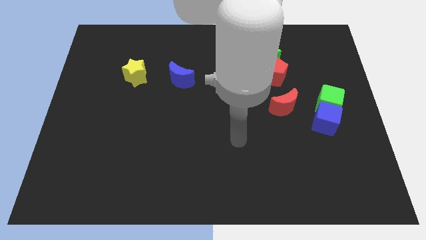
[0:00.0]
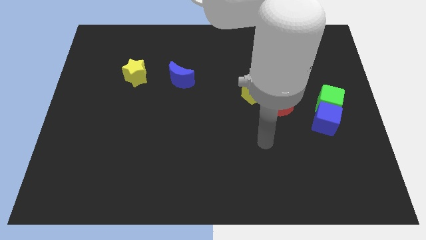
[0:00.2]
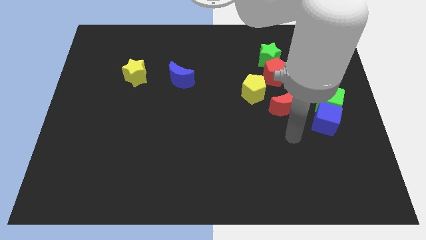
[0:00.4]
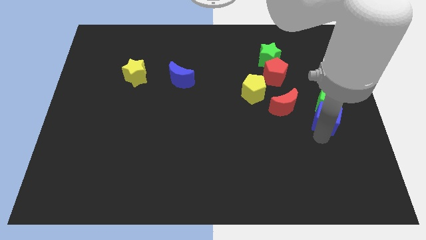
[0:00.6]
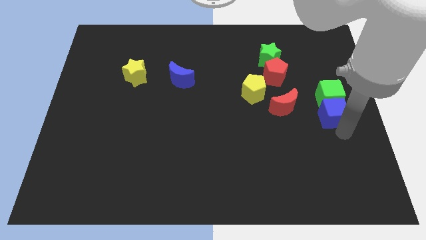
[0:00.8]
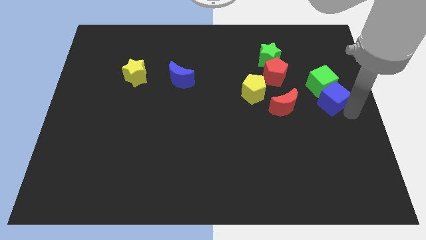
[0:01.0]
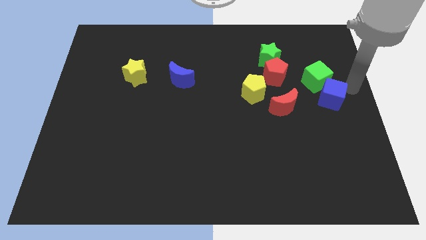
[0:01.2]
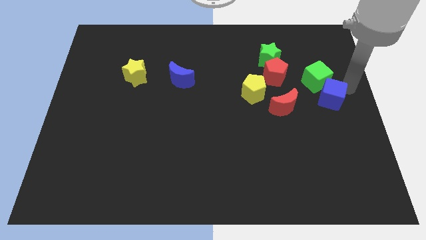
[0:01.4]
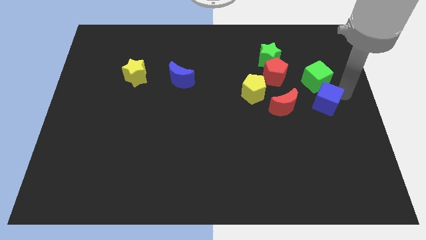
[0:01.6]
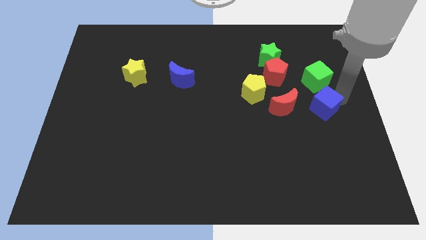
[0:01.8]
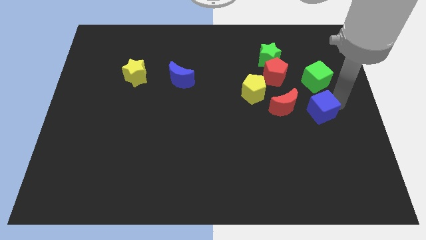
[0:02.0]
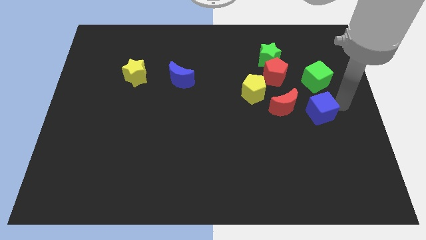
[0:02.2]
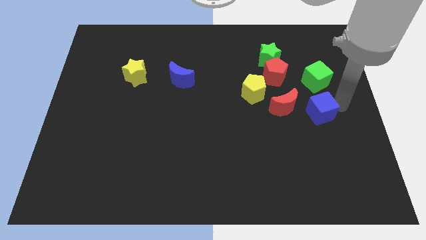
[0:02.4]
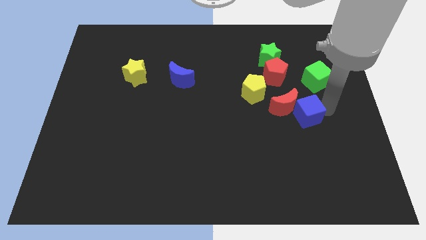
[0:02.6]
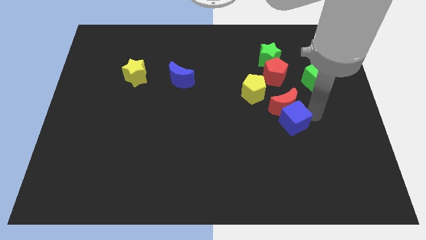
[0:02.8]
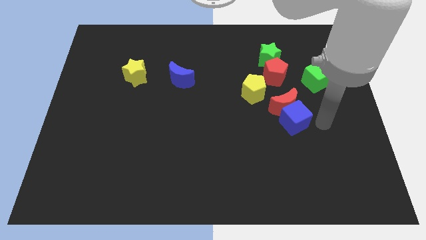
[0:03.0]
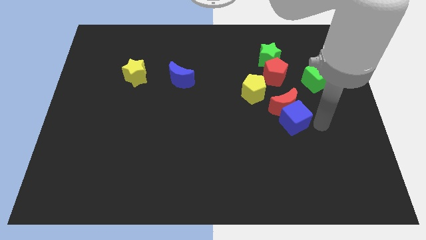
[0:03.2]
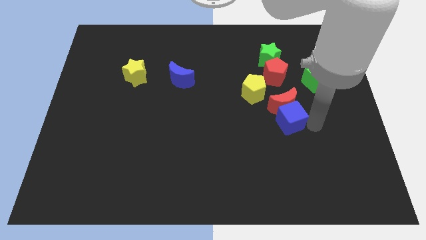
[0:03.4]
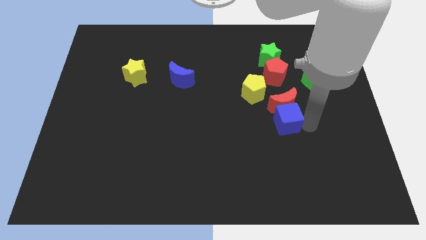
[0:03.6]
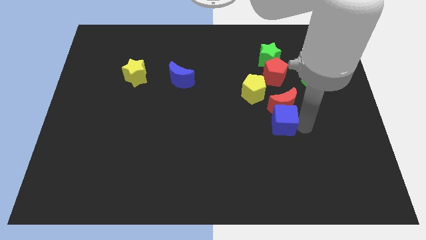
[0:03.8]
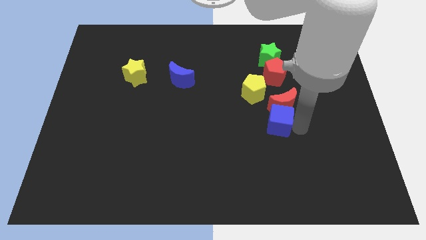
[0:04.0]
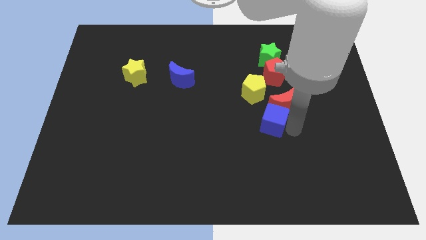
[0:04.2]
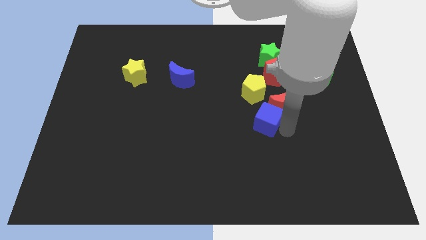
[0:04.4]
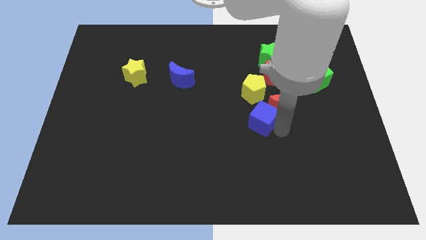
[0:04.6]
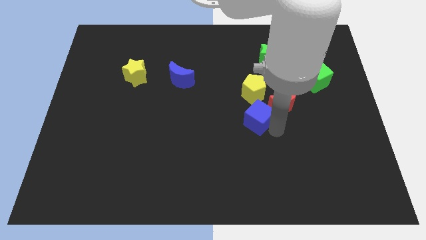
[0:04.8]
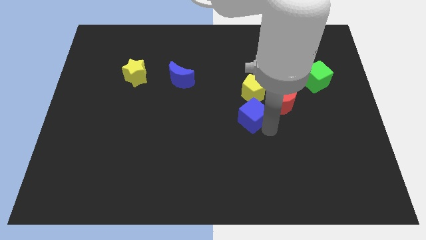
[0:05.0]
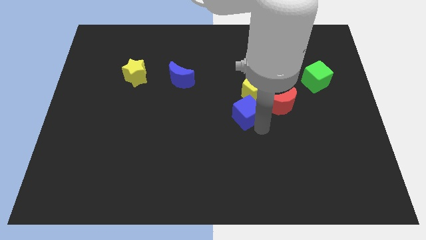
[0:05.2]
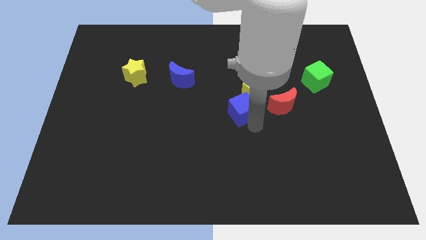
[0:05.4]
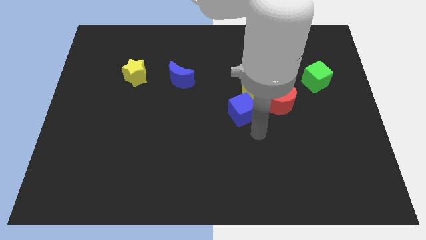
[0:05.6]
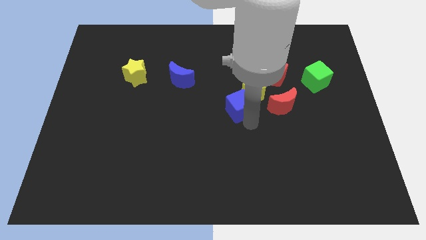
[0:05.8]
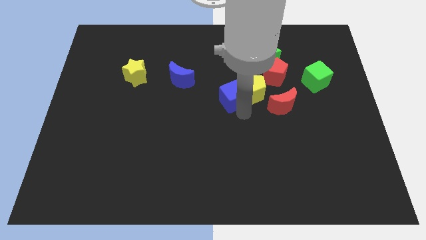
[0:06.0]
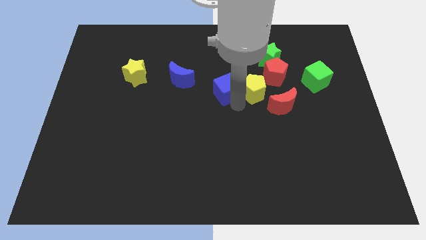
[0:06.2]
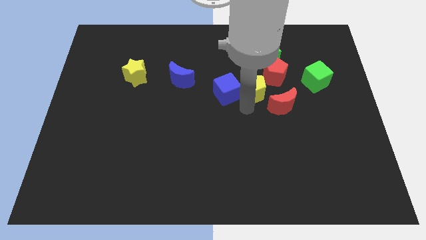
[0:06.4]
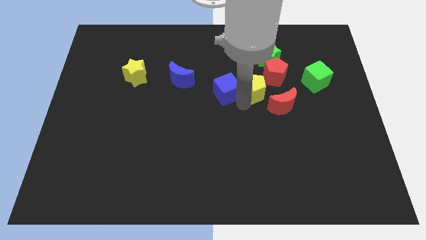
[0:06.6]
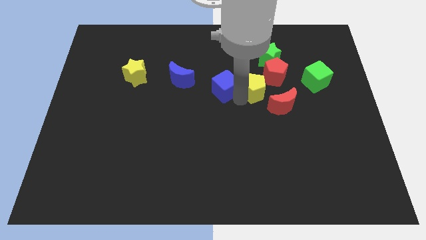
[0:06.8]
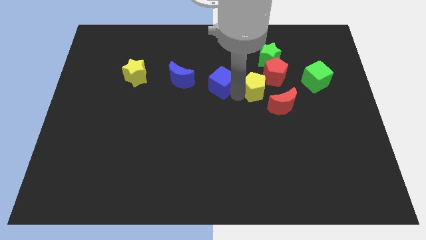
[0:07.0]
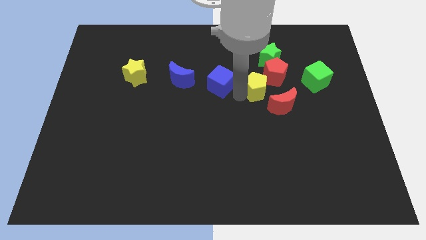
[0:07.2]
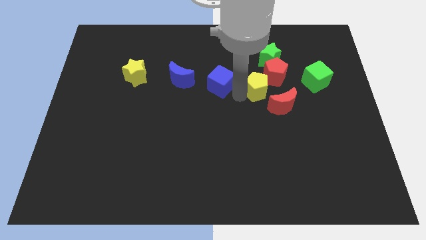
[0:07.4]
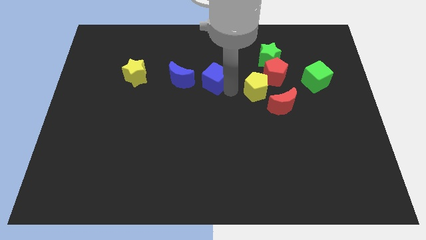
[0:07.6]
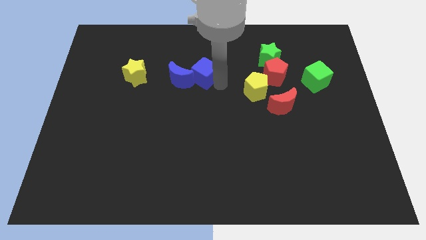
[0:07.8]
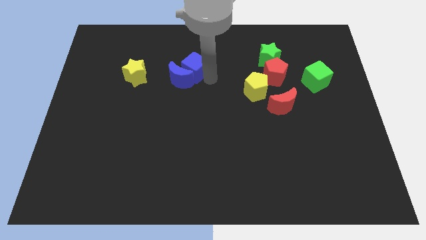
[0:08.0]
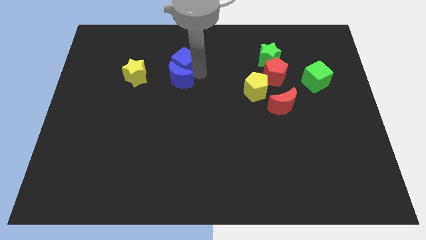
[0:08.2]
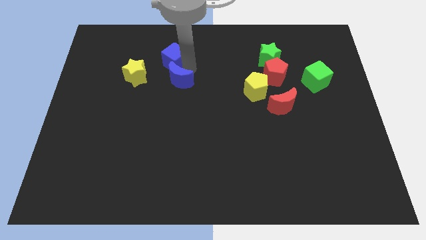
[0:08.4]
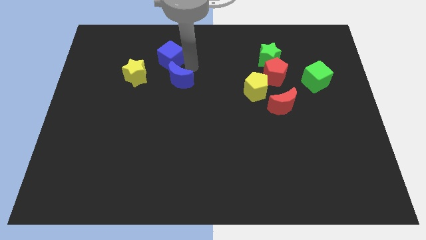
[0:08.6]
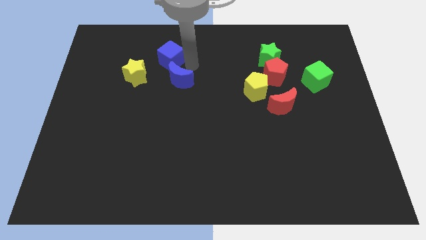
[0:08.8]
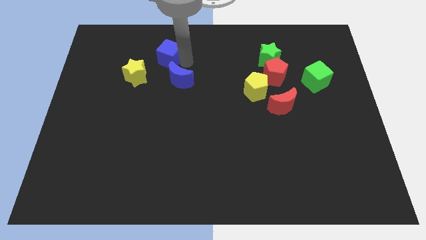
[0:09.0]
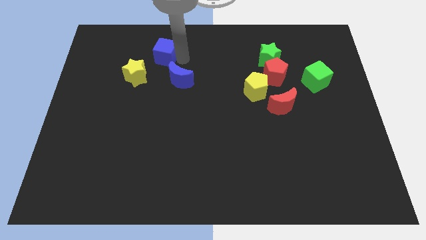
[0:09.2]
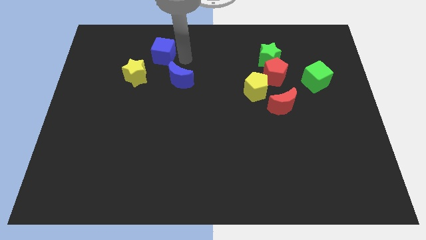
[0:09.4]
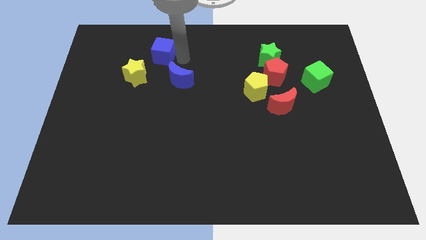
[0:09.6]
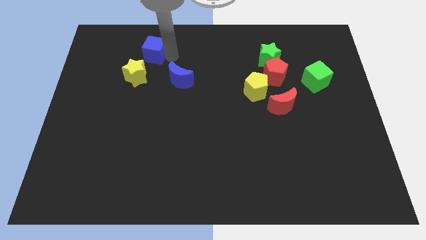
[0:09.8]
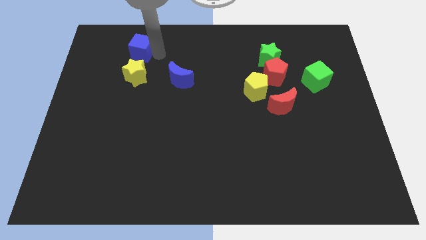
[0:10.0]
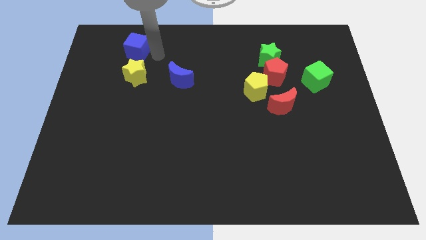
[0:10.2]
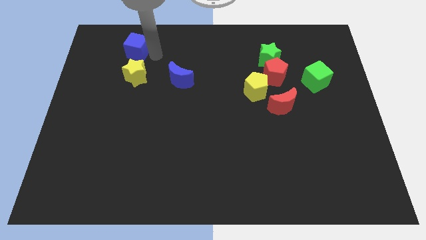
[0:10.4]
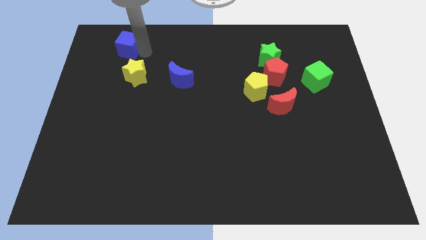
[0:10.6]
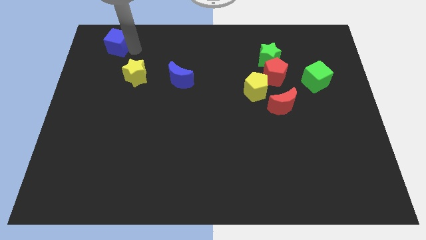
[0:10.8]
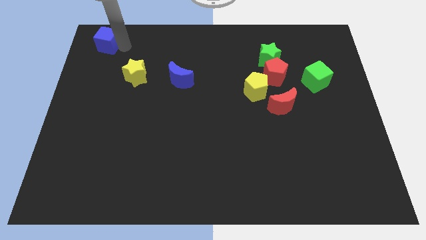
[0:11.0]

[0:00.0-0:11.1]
put the blue cube to the upper left corner

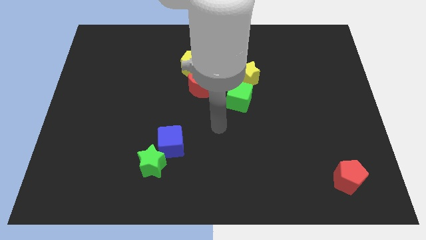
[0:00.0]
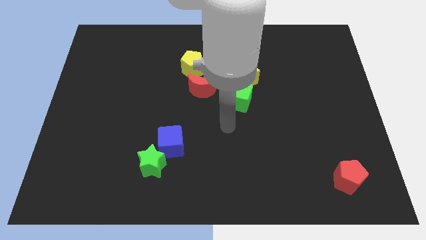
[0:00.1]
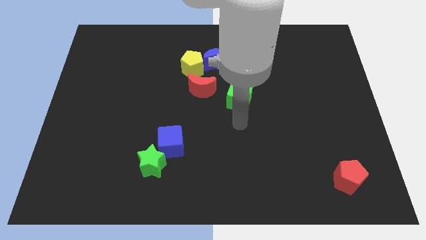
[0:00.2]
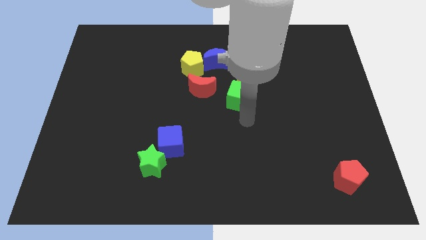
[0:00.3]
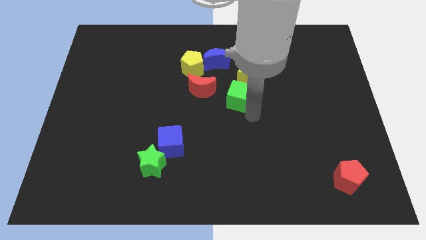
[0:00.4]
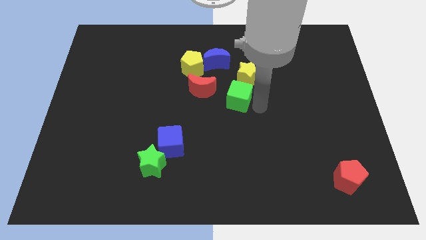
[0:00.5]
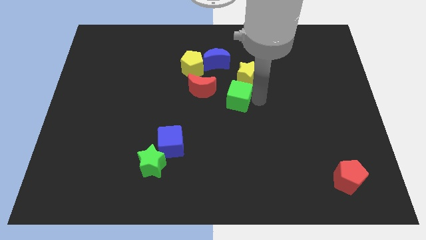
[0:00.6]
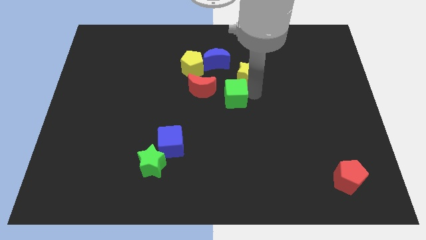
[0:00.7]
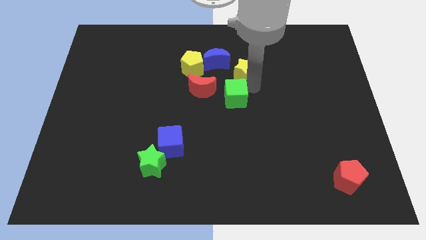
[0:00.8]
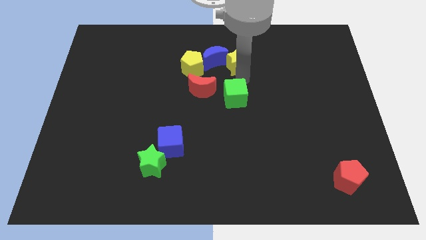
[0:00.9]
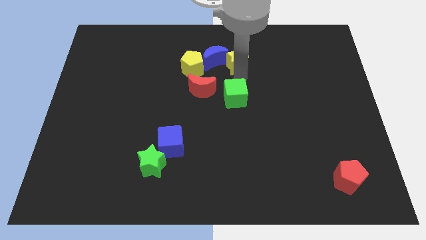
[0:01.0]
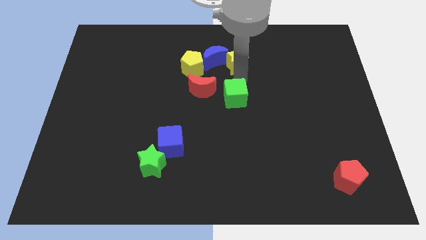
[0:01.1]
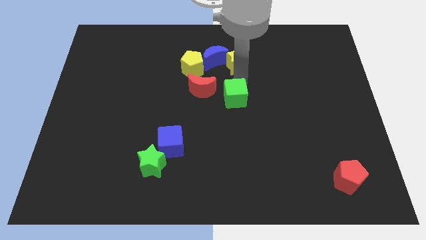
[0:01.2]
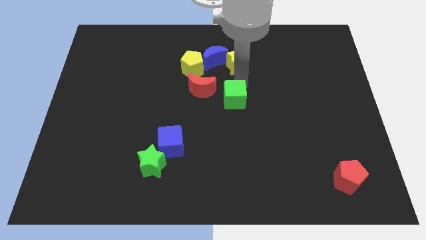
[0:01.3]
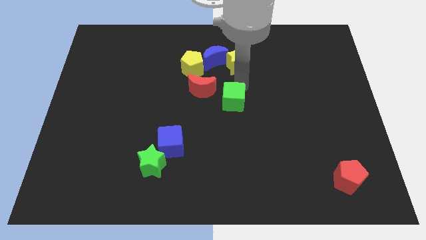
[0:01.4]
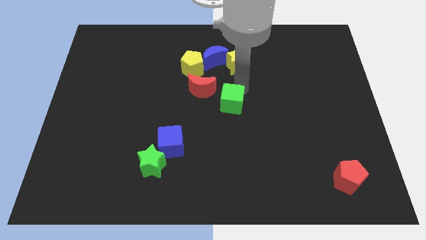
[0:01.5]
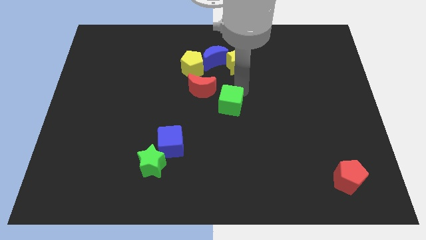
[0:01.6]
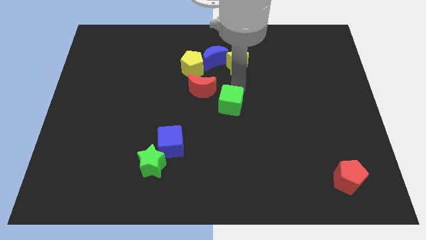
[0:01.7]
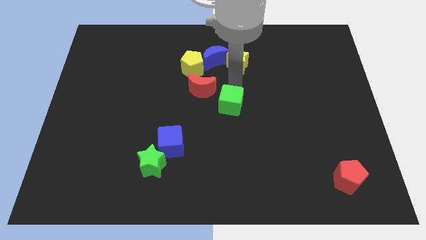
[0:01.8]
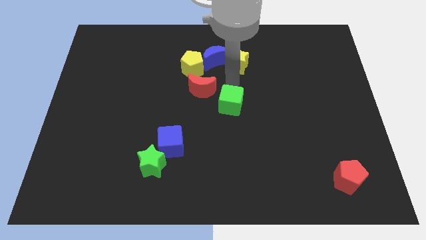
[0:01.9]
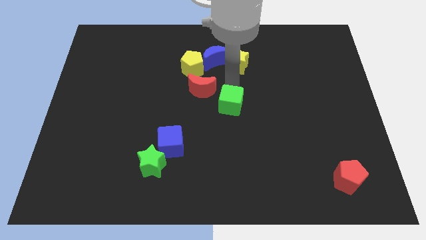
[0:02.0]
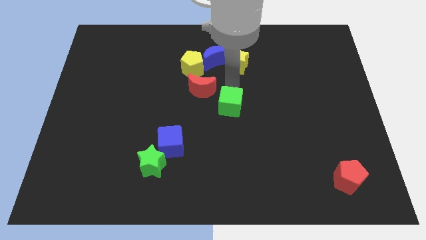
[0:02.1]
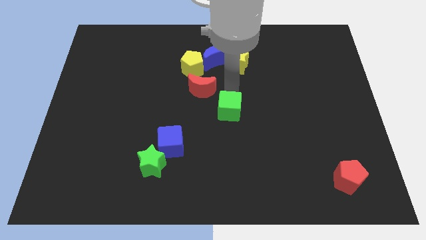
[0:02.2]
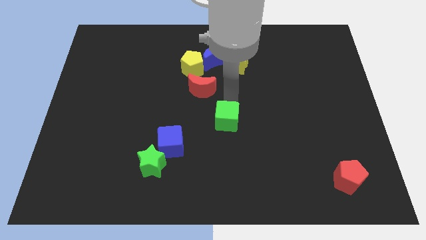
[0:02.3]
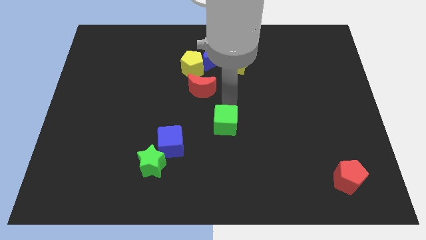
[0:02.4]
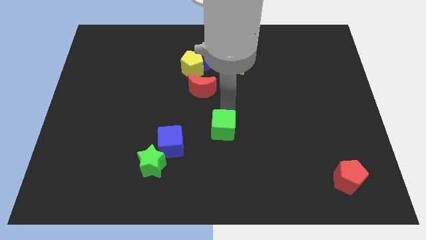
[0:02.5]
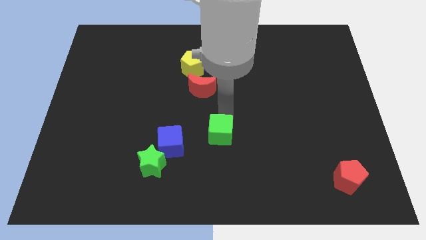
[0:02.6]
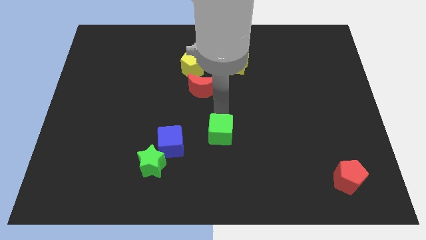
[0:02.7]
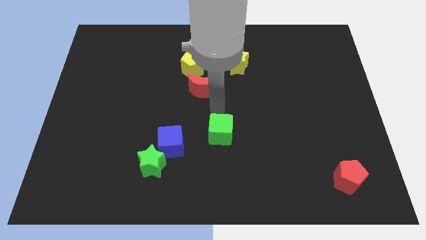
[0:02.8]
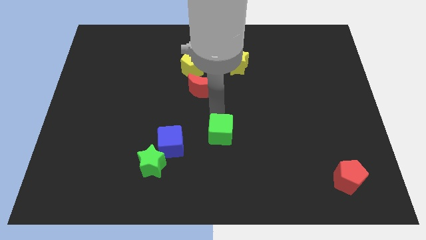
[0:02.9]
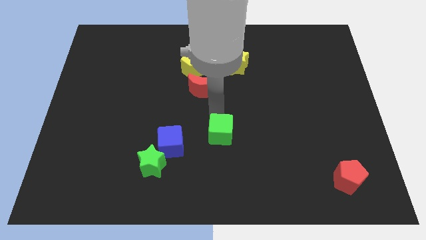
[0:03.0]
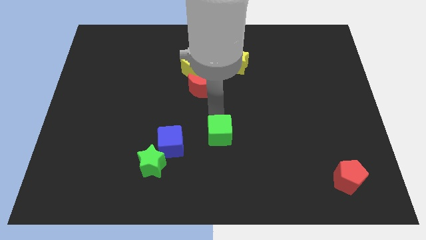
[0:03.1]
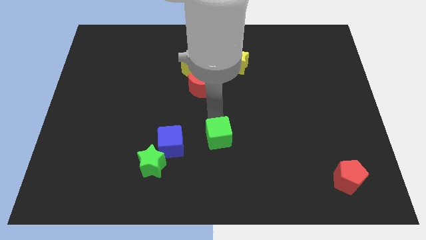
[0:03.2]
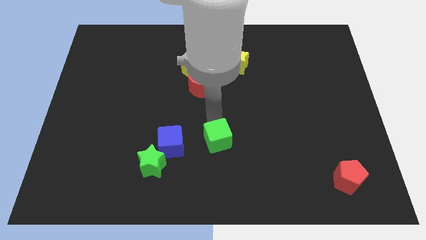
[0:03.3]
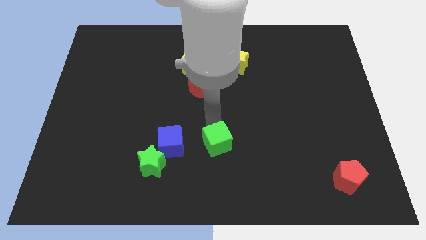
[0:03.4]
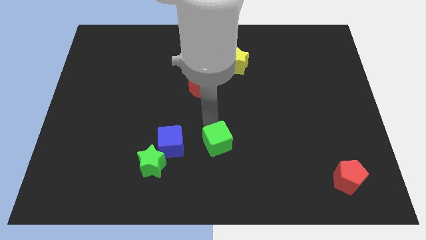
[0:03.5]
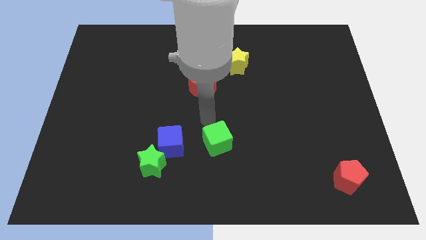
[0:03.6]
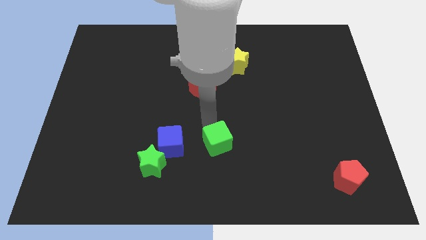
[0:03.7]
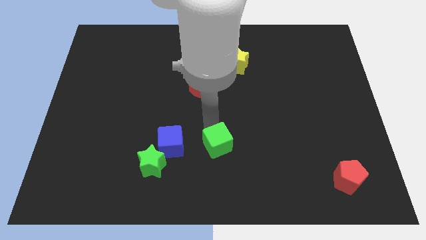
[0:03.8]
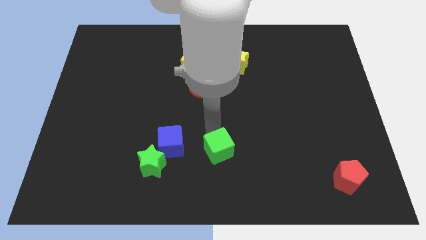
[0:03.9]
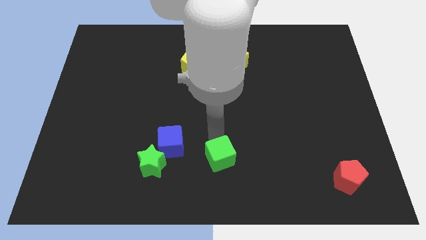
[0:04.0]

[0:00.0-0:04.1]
move the green cube to the bottom side
